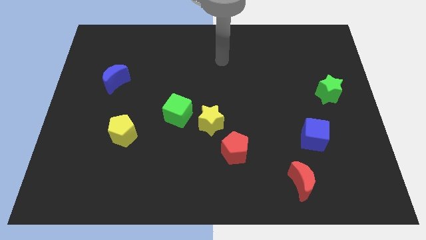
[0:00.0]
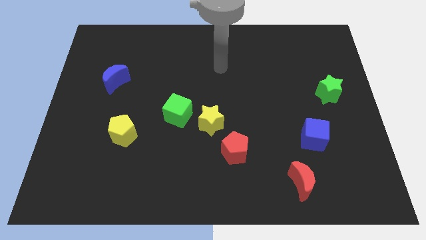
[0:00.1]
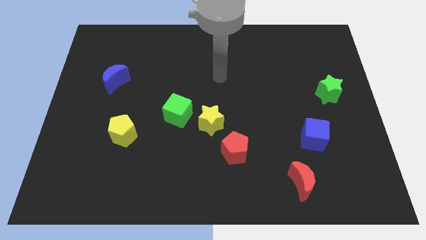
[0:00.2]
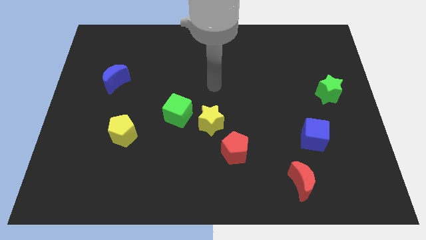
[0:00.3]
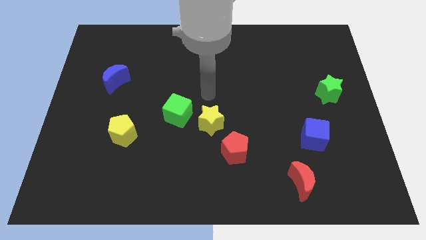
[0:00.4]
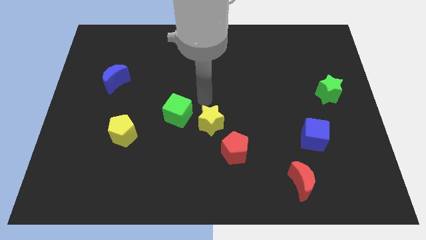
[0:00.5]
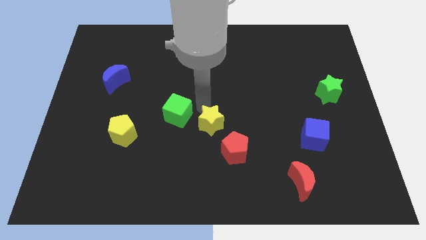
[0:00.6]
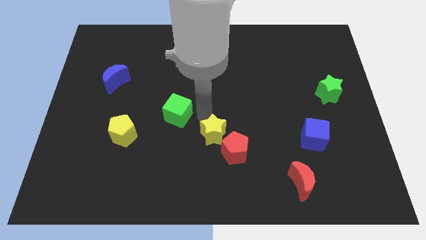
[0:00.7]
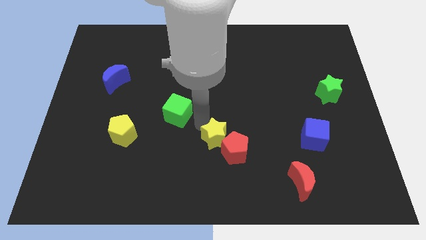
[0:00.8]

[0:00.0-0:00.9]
separate the green cube from the yellow star

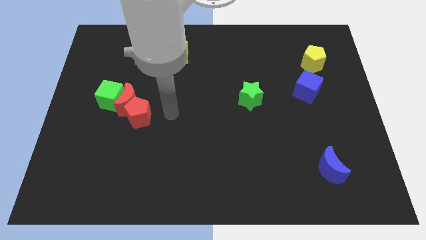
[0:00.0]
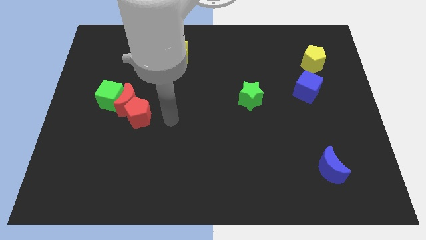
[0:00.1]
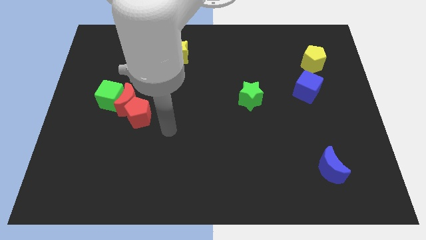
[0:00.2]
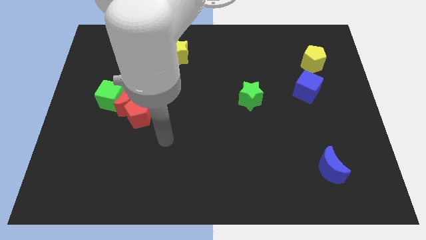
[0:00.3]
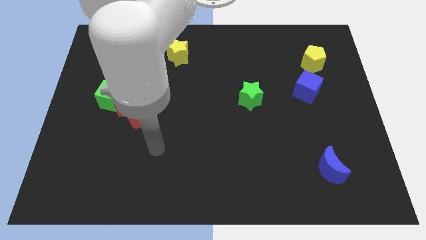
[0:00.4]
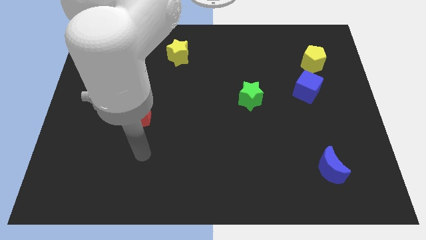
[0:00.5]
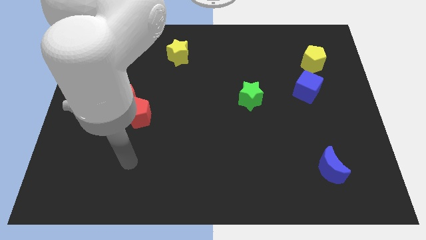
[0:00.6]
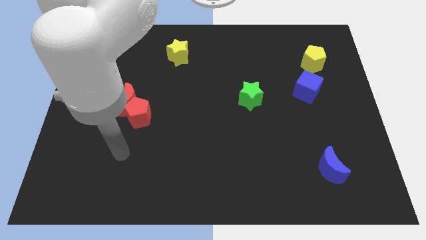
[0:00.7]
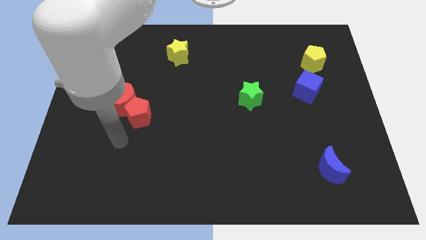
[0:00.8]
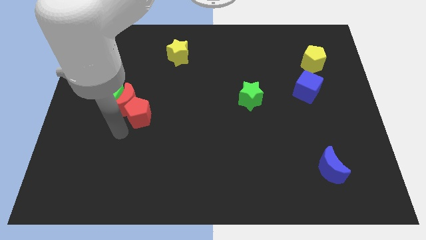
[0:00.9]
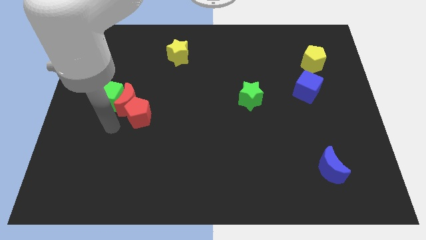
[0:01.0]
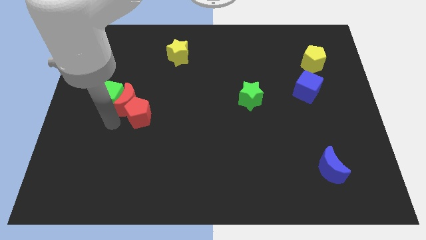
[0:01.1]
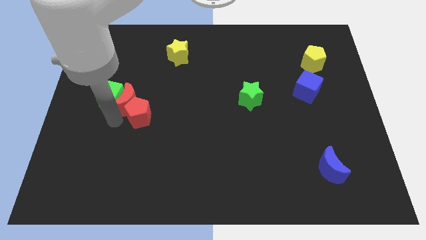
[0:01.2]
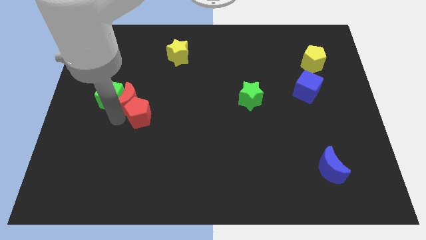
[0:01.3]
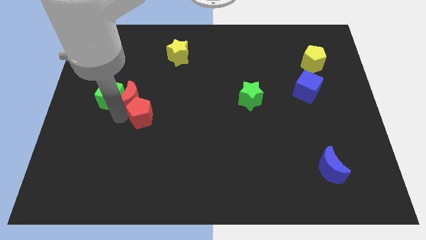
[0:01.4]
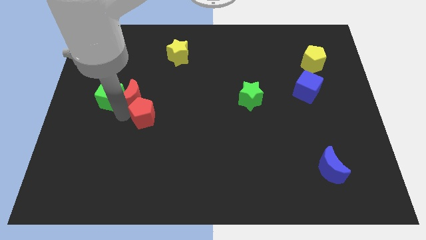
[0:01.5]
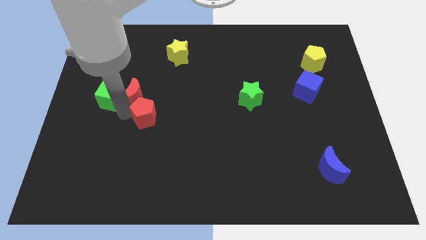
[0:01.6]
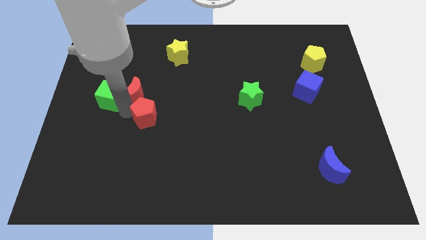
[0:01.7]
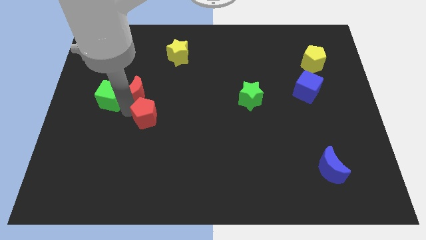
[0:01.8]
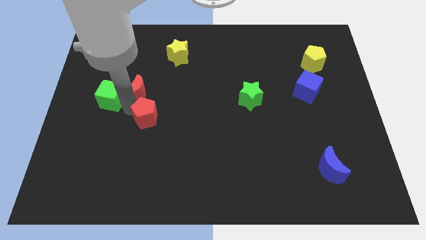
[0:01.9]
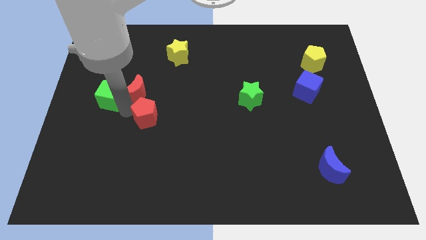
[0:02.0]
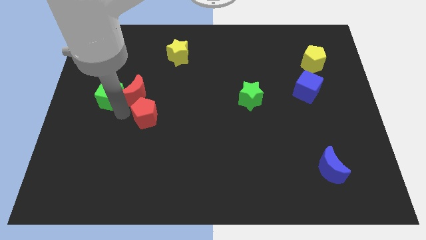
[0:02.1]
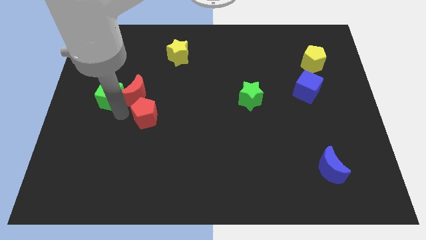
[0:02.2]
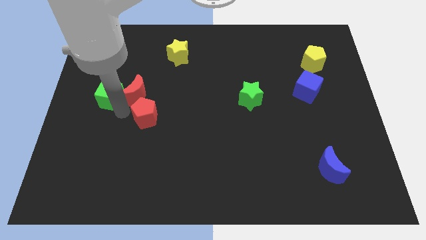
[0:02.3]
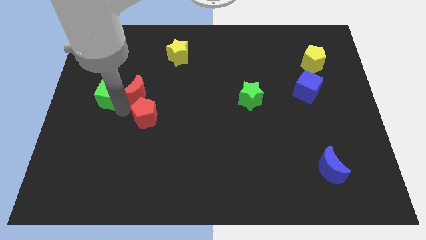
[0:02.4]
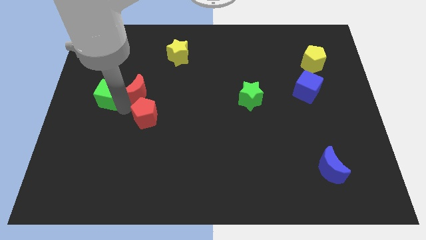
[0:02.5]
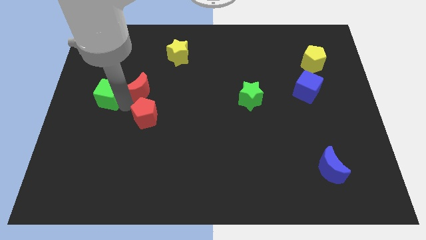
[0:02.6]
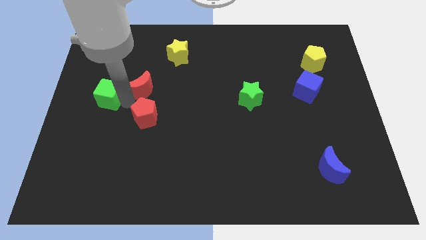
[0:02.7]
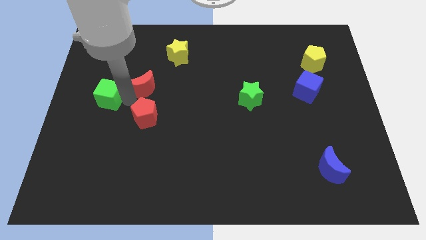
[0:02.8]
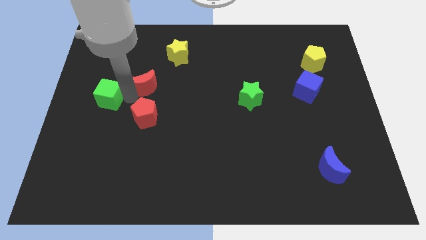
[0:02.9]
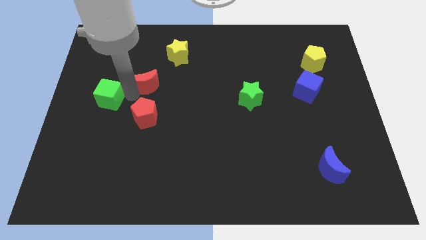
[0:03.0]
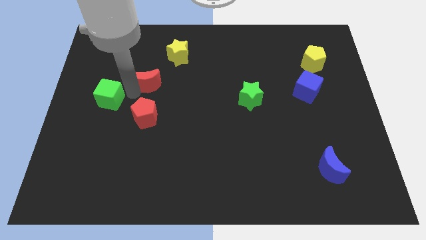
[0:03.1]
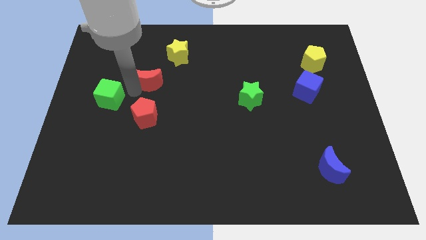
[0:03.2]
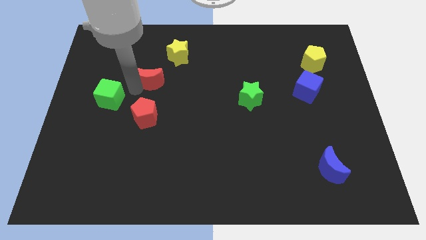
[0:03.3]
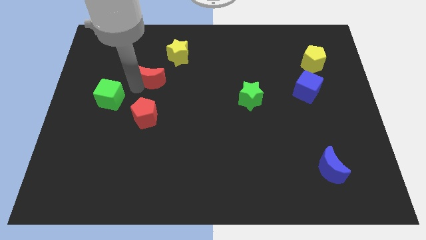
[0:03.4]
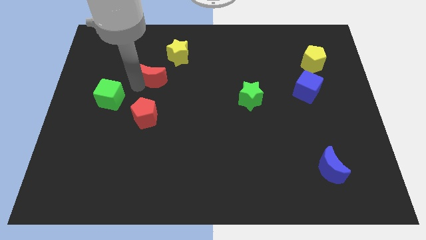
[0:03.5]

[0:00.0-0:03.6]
move the red moon away from the green cube and red pentagon

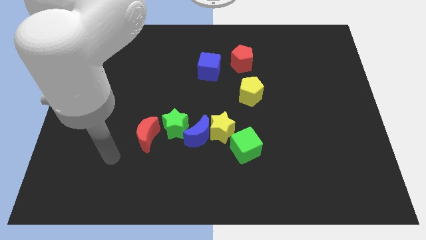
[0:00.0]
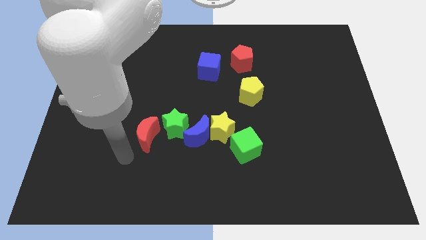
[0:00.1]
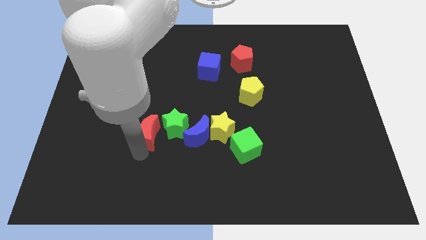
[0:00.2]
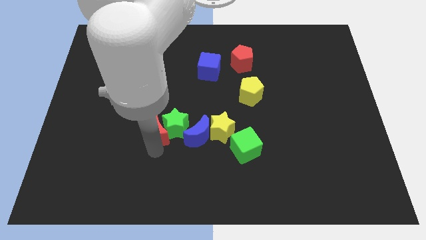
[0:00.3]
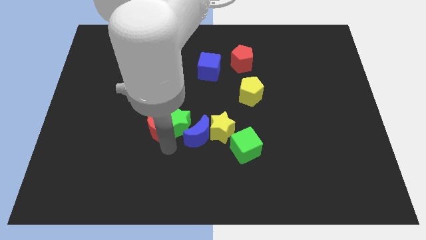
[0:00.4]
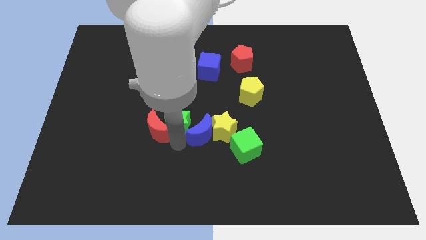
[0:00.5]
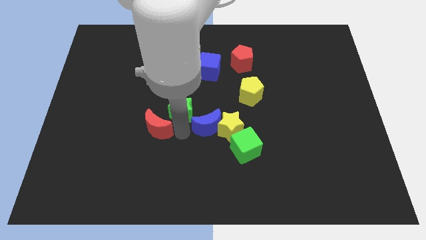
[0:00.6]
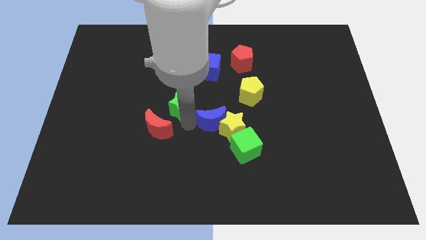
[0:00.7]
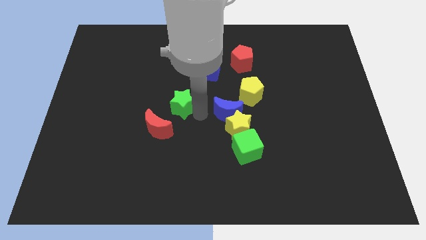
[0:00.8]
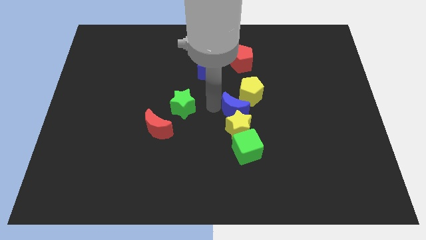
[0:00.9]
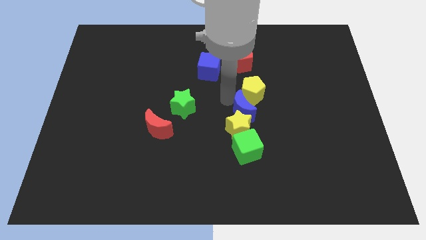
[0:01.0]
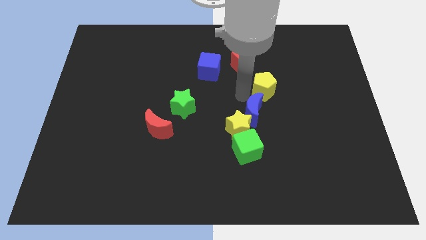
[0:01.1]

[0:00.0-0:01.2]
pull the blue moon apart from the yellow star and green star

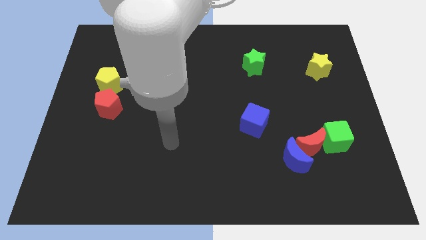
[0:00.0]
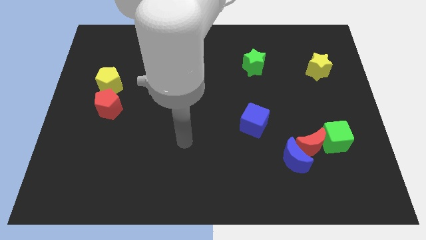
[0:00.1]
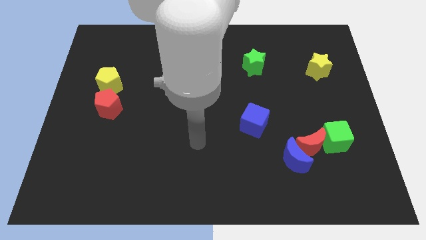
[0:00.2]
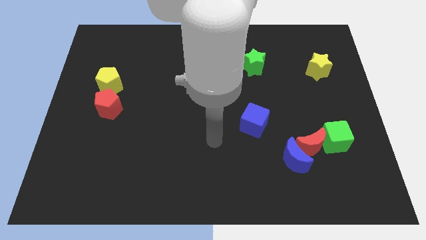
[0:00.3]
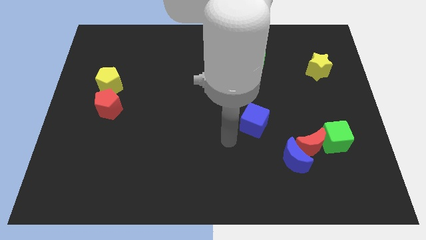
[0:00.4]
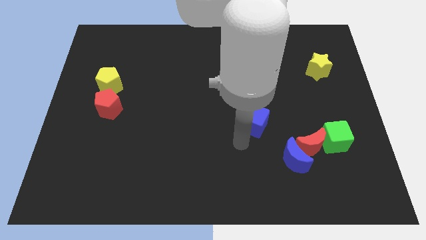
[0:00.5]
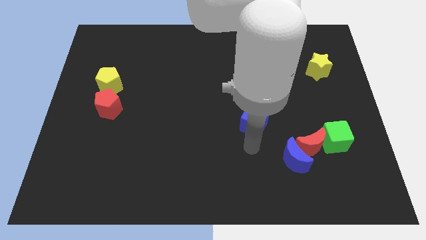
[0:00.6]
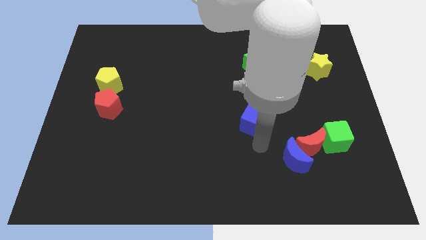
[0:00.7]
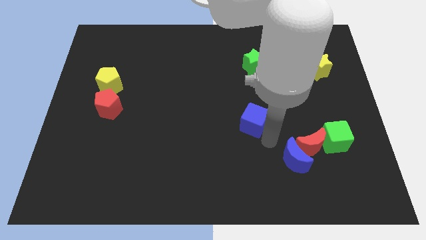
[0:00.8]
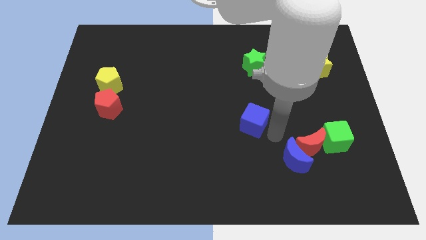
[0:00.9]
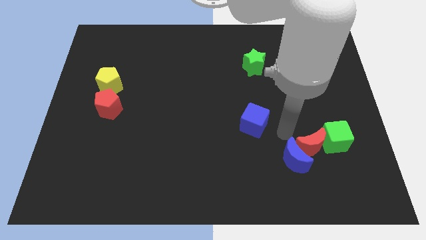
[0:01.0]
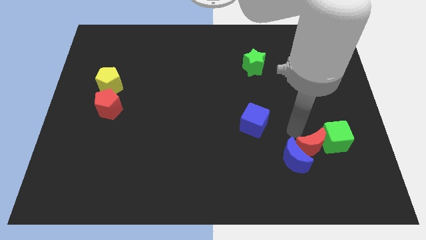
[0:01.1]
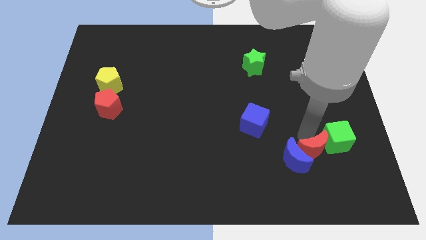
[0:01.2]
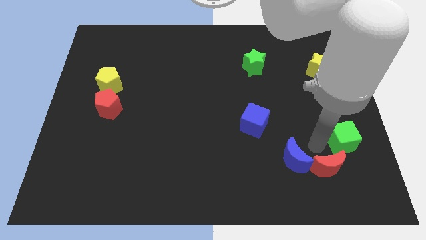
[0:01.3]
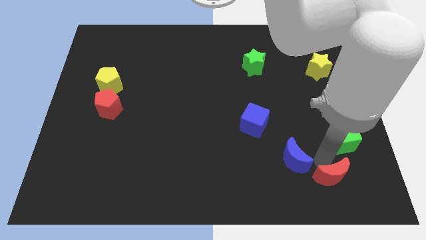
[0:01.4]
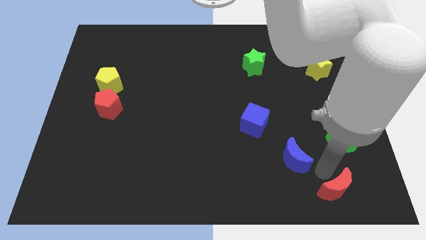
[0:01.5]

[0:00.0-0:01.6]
move the blue moon away from the red moon

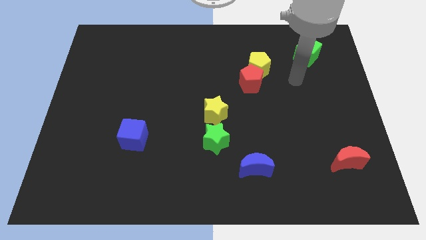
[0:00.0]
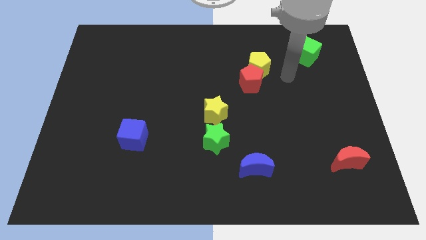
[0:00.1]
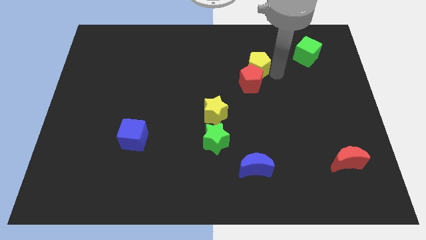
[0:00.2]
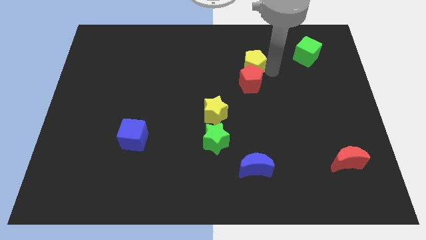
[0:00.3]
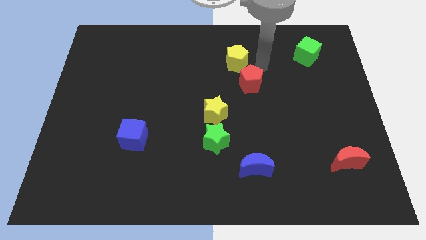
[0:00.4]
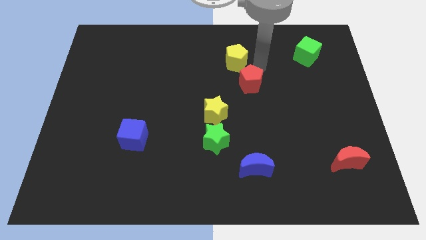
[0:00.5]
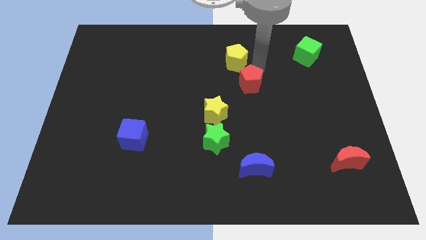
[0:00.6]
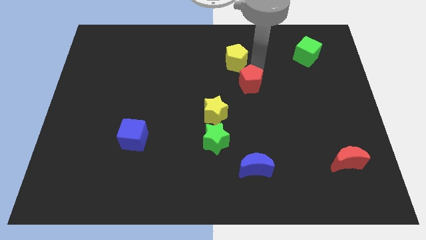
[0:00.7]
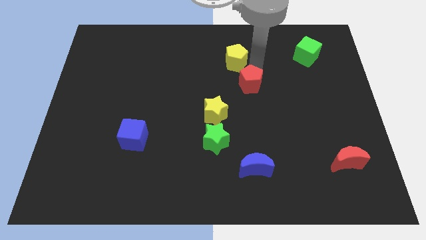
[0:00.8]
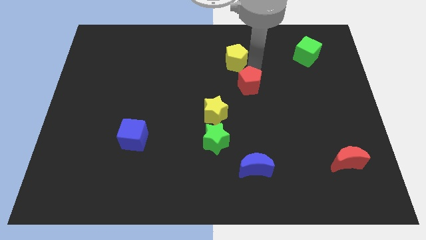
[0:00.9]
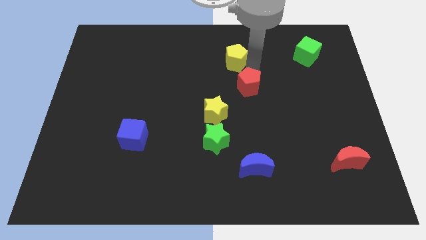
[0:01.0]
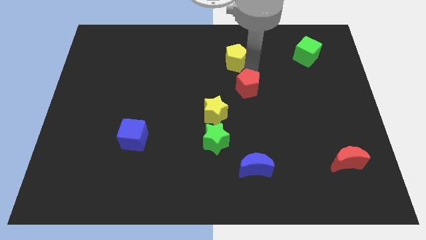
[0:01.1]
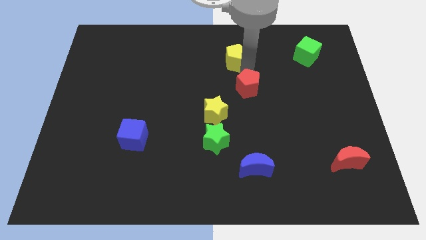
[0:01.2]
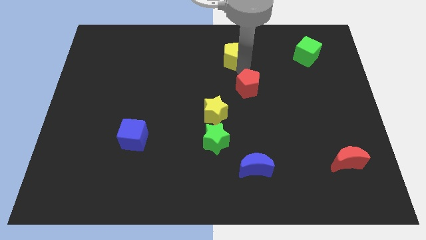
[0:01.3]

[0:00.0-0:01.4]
separate the red pentagon from the yellow pentagon

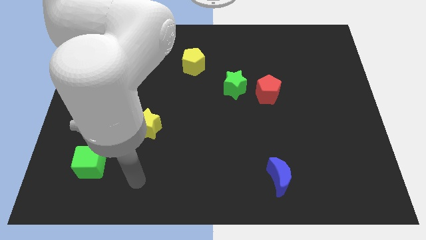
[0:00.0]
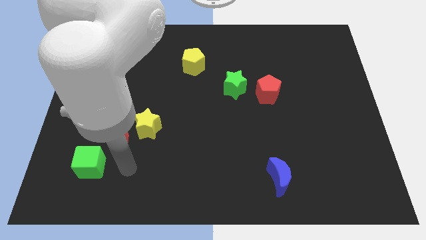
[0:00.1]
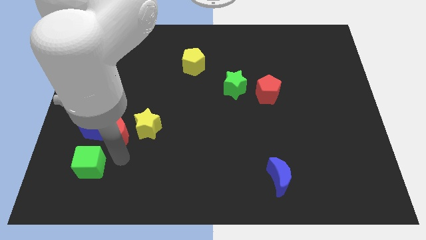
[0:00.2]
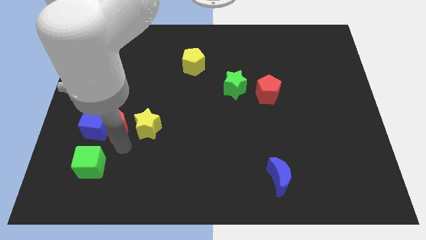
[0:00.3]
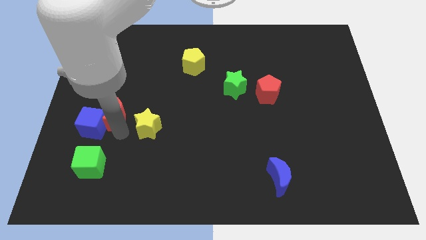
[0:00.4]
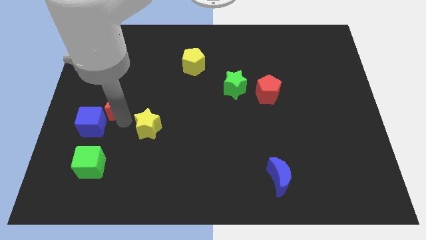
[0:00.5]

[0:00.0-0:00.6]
move the yellow star away from the red moon
